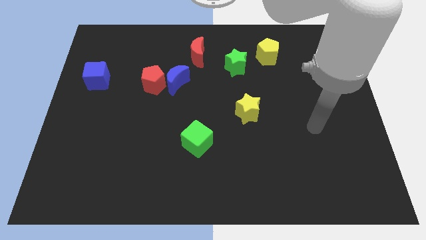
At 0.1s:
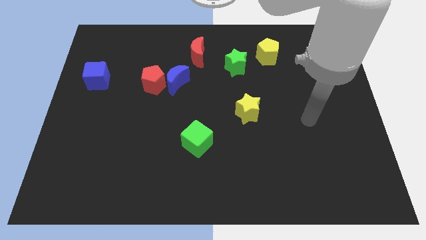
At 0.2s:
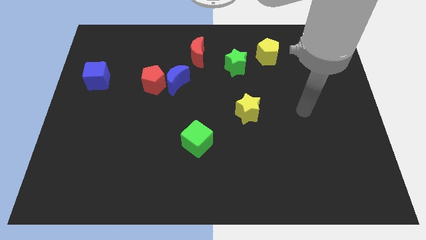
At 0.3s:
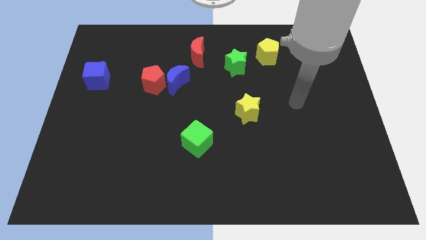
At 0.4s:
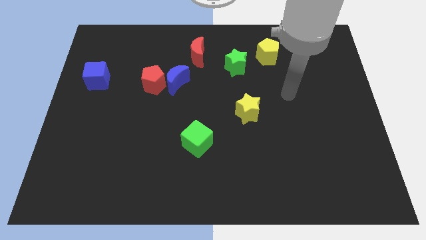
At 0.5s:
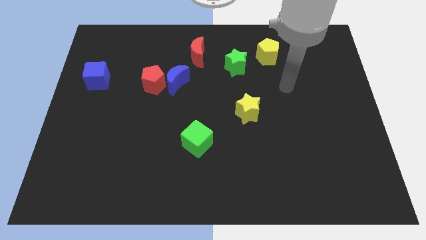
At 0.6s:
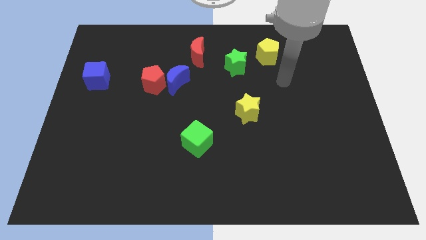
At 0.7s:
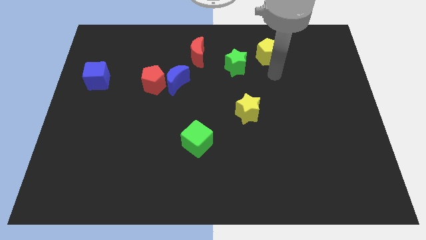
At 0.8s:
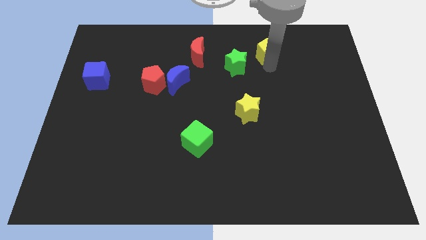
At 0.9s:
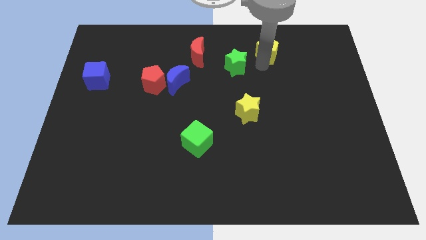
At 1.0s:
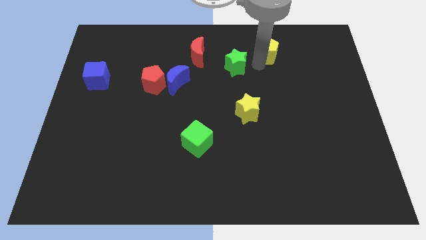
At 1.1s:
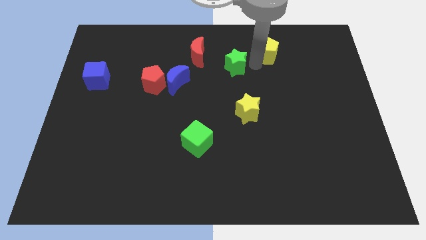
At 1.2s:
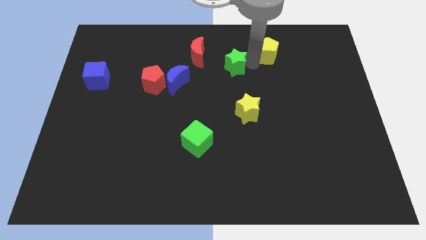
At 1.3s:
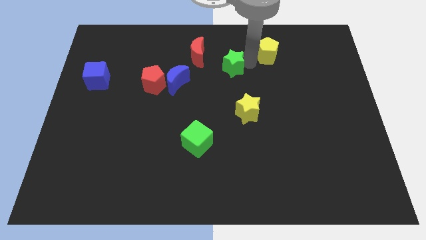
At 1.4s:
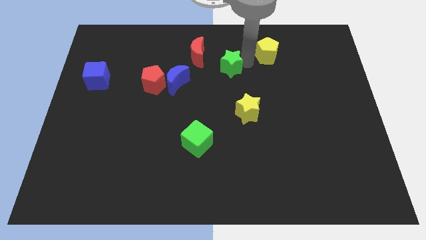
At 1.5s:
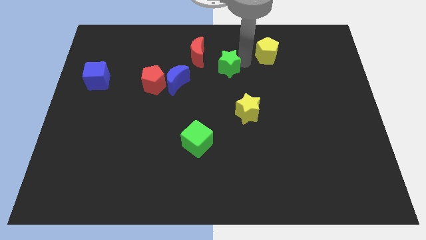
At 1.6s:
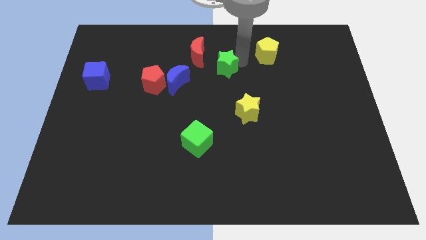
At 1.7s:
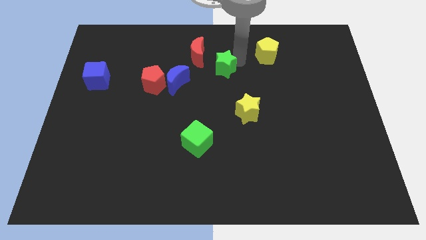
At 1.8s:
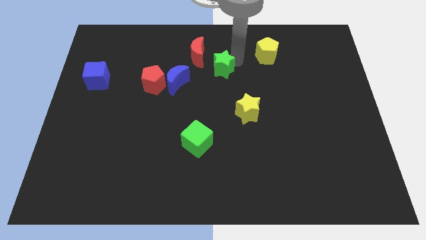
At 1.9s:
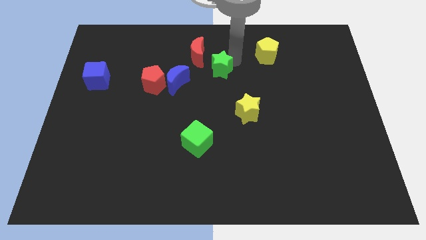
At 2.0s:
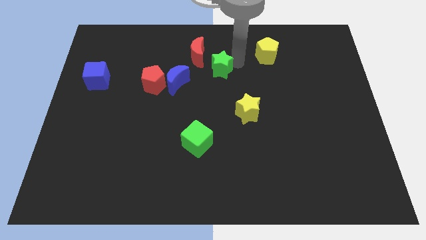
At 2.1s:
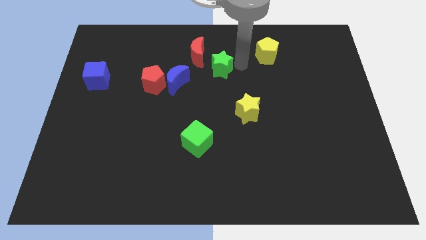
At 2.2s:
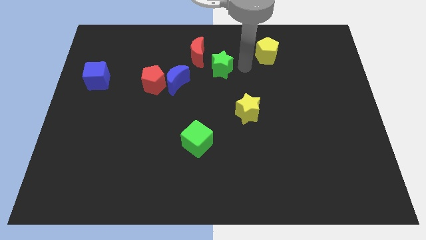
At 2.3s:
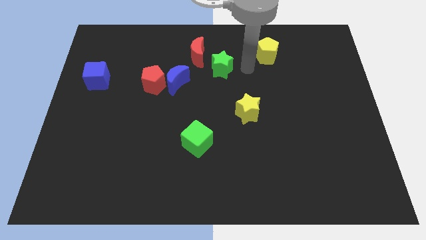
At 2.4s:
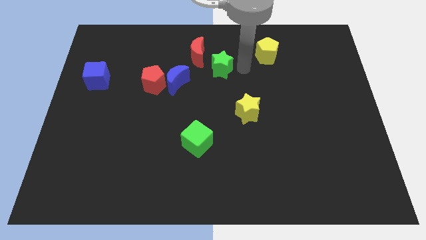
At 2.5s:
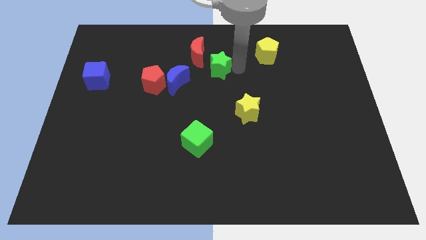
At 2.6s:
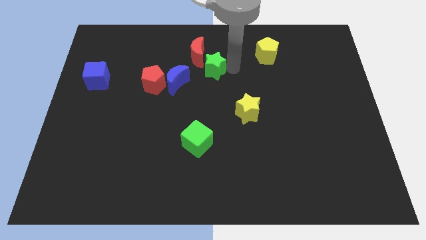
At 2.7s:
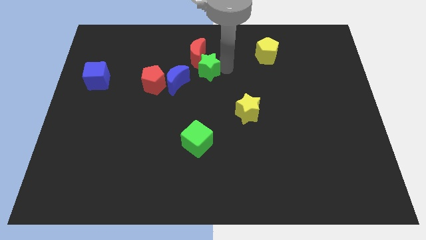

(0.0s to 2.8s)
slightly push the green star left

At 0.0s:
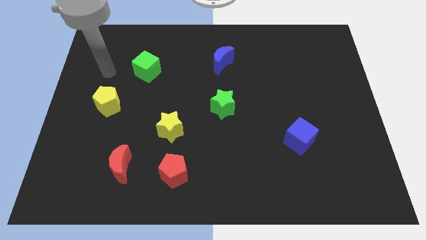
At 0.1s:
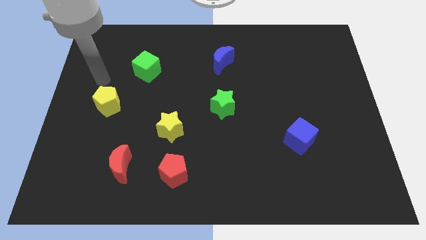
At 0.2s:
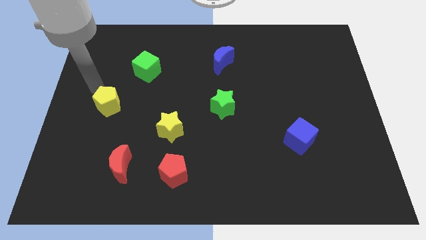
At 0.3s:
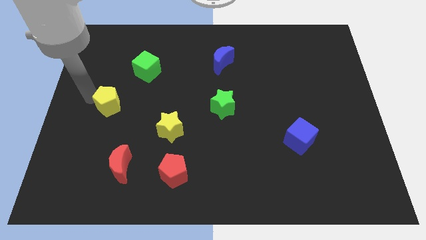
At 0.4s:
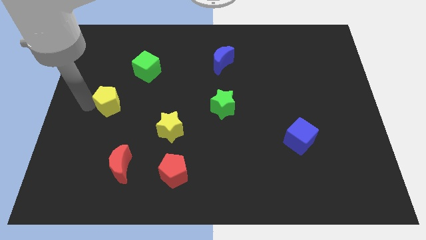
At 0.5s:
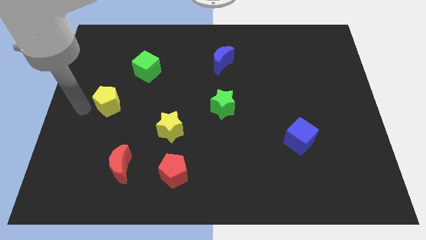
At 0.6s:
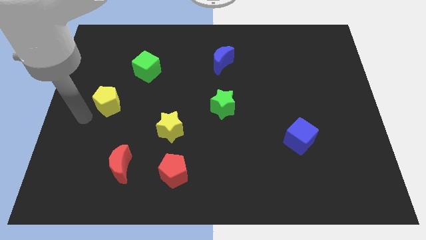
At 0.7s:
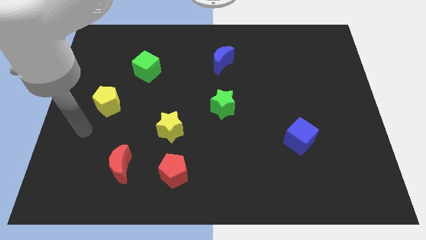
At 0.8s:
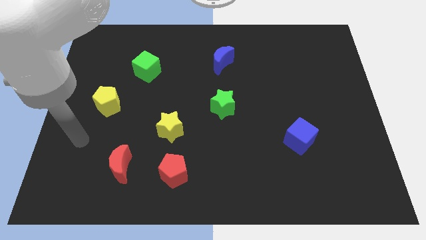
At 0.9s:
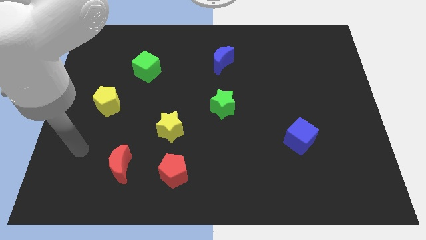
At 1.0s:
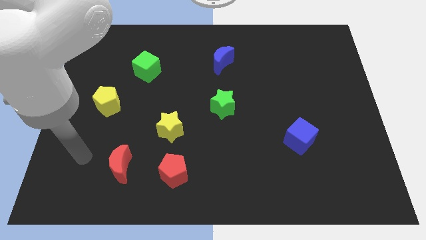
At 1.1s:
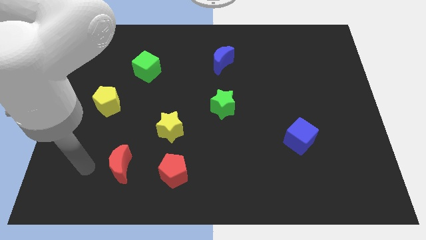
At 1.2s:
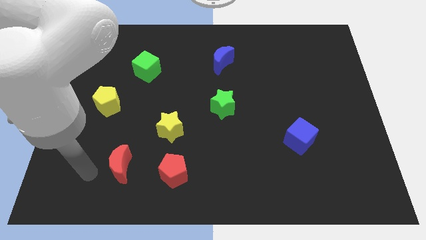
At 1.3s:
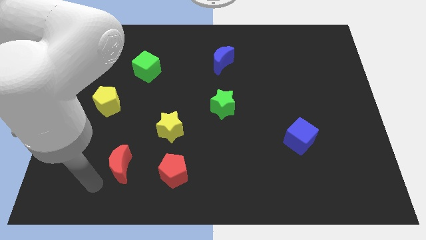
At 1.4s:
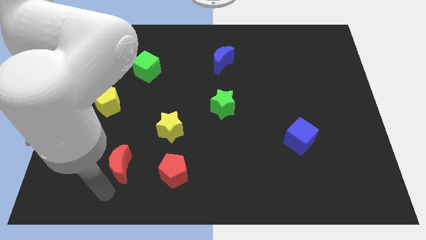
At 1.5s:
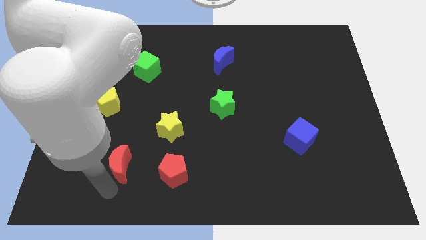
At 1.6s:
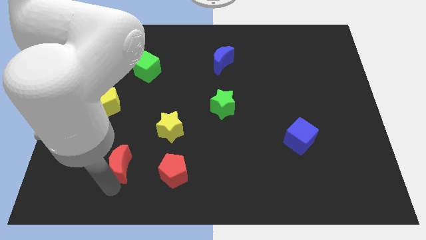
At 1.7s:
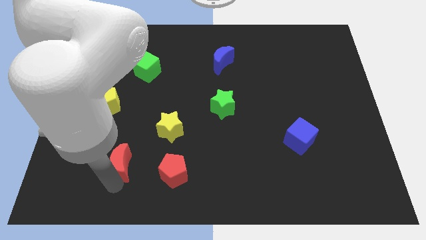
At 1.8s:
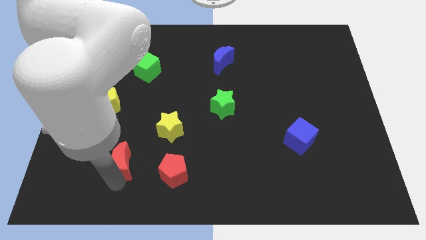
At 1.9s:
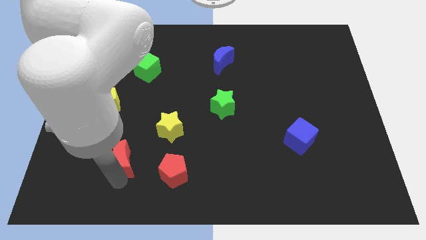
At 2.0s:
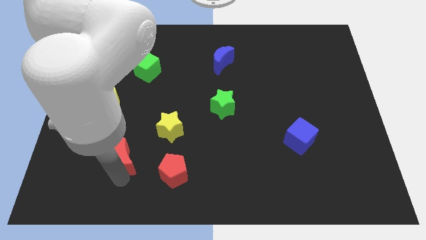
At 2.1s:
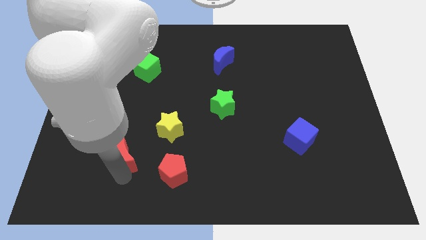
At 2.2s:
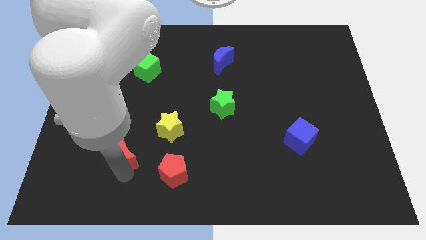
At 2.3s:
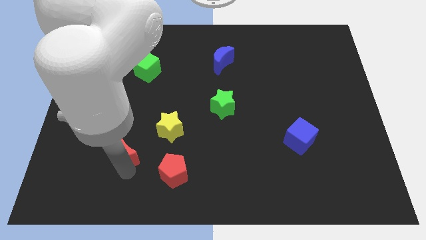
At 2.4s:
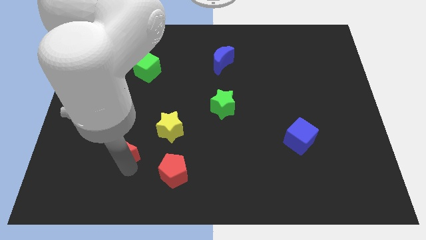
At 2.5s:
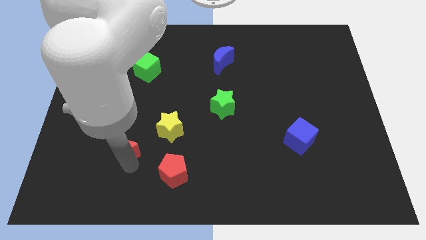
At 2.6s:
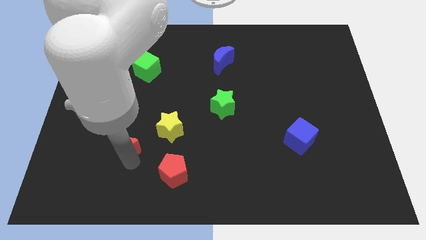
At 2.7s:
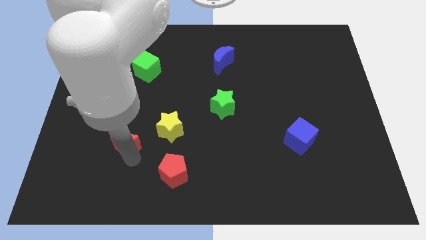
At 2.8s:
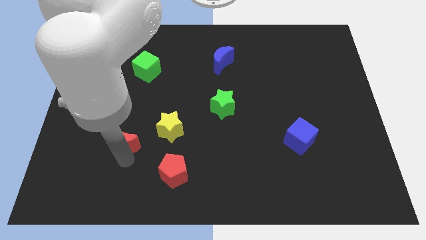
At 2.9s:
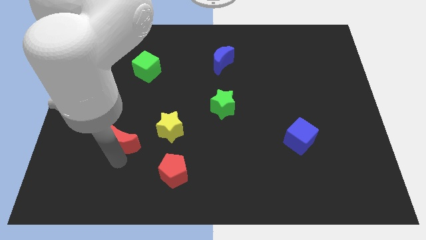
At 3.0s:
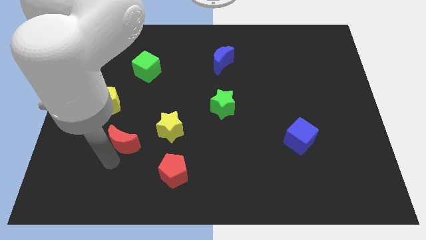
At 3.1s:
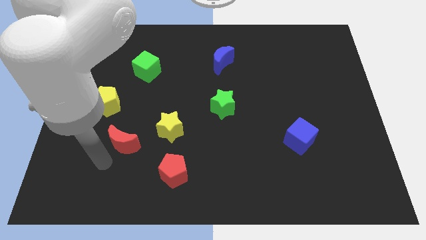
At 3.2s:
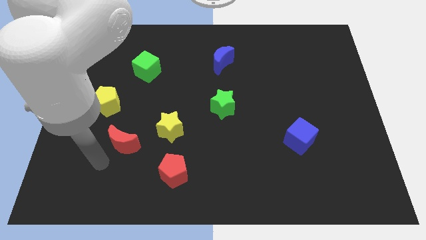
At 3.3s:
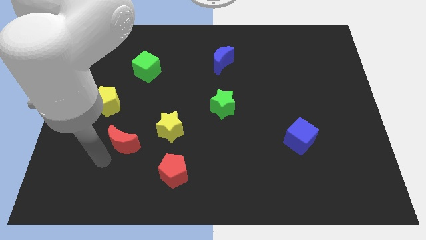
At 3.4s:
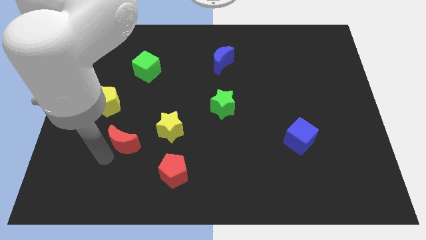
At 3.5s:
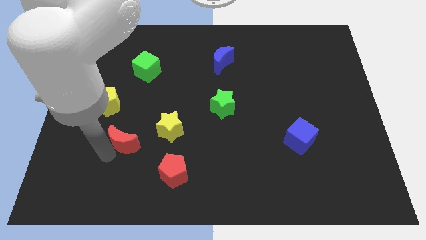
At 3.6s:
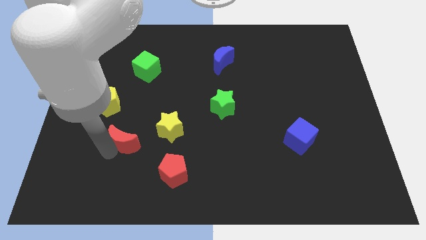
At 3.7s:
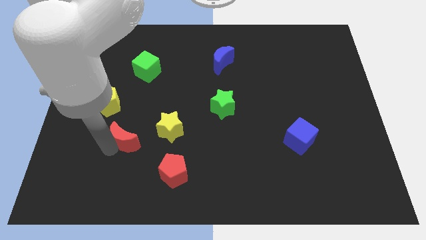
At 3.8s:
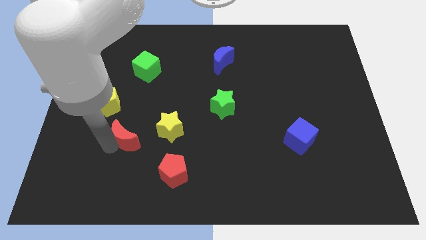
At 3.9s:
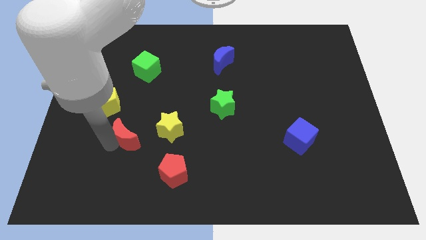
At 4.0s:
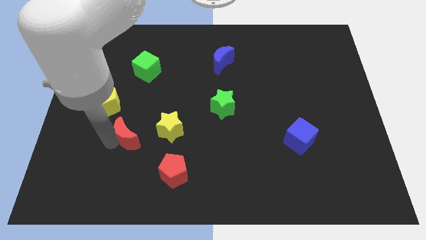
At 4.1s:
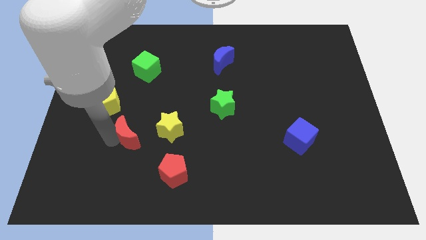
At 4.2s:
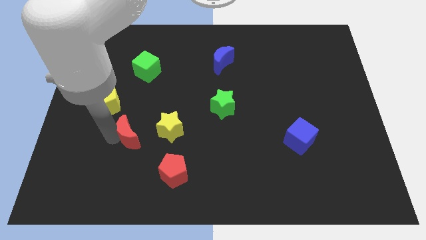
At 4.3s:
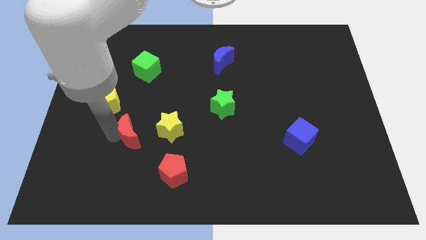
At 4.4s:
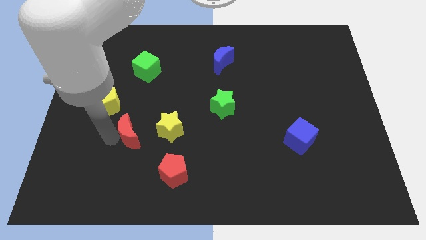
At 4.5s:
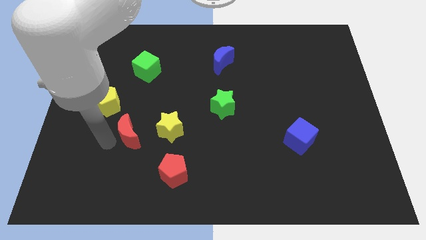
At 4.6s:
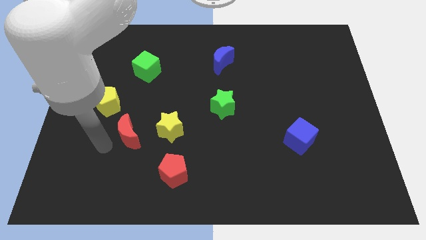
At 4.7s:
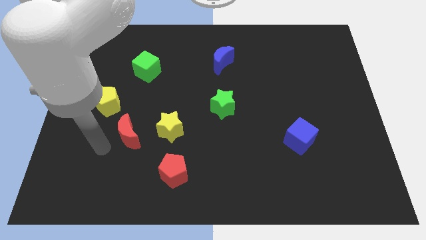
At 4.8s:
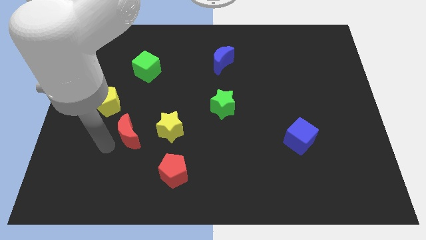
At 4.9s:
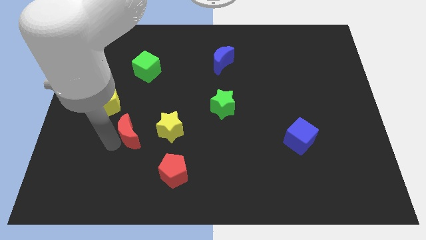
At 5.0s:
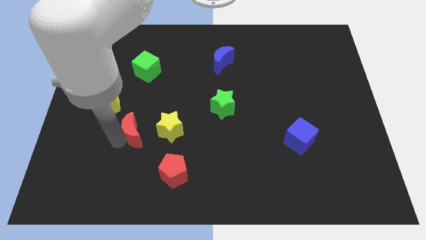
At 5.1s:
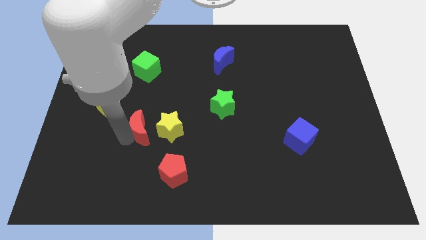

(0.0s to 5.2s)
slightly push the red moon upwards and then right

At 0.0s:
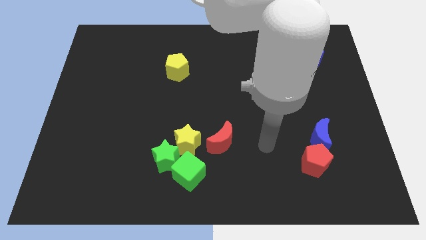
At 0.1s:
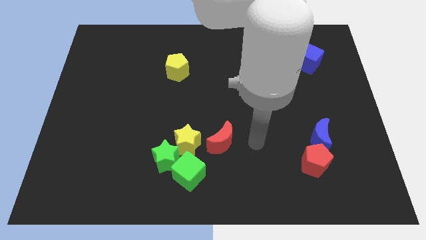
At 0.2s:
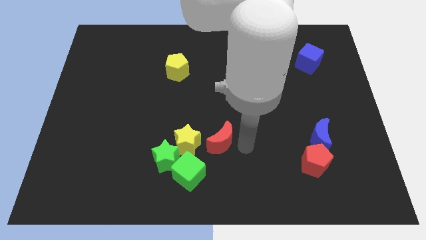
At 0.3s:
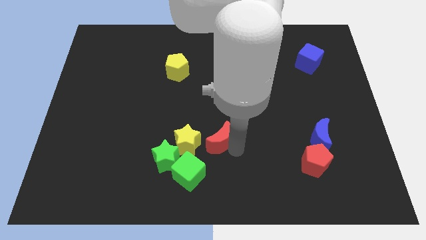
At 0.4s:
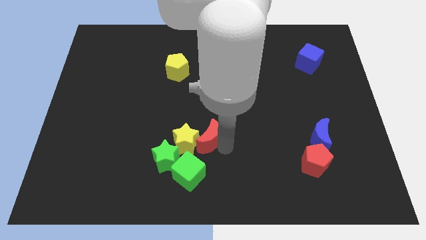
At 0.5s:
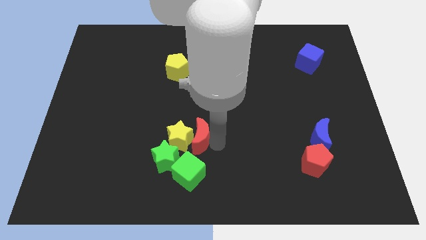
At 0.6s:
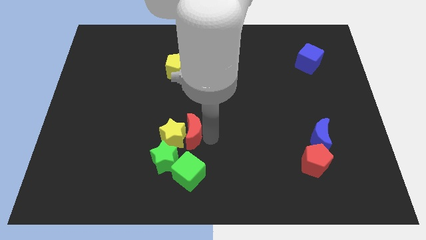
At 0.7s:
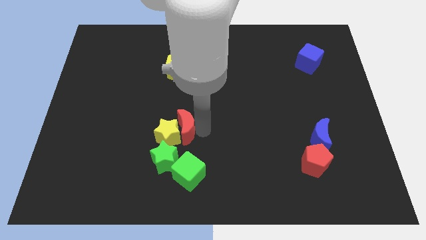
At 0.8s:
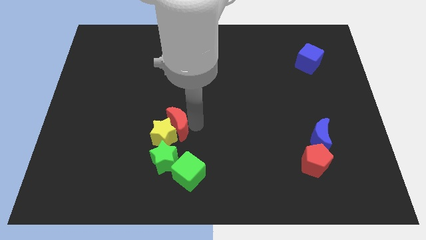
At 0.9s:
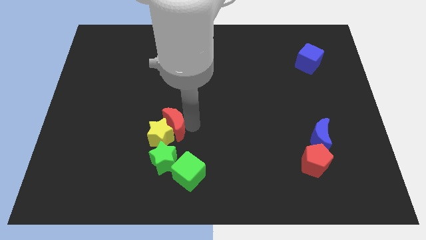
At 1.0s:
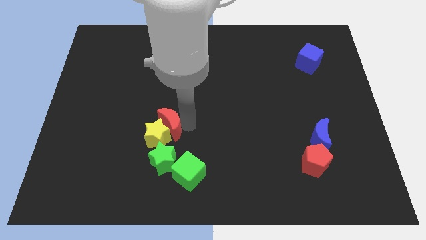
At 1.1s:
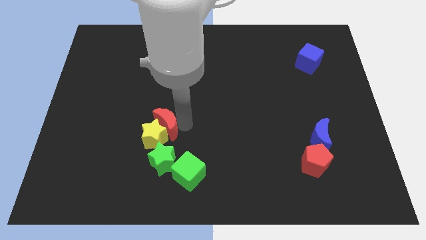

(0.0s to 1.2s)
push the yellow star to the left a bit
